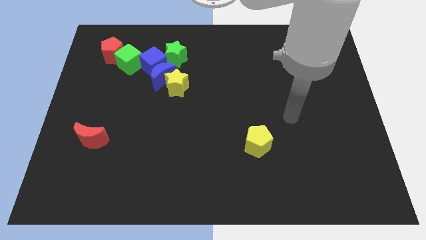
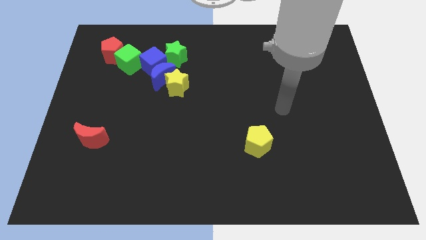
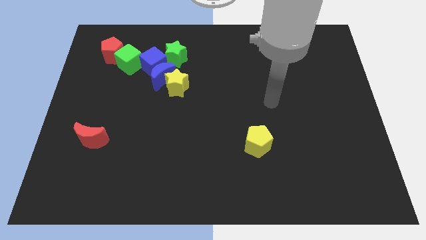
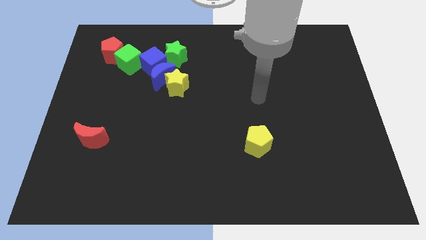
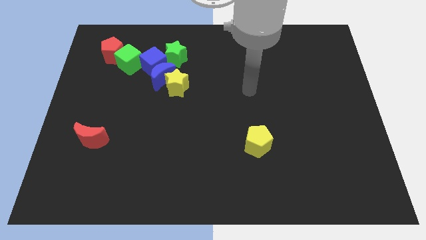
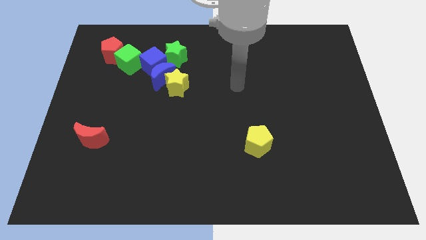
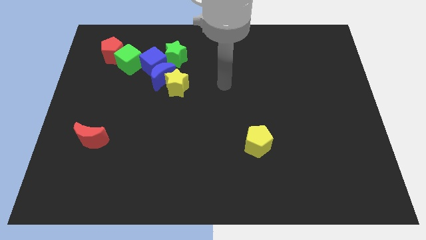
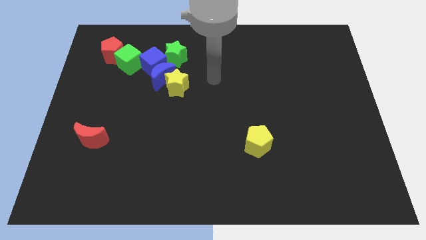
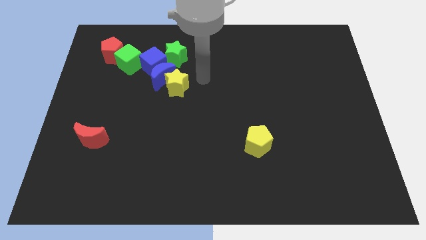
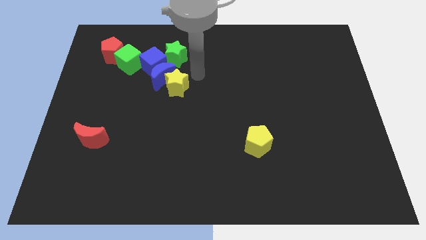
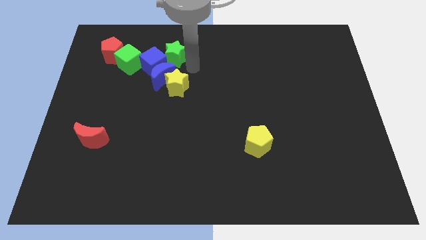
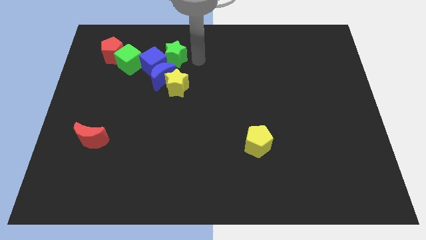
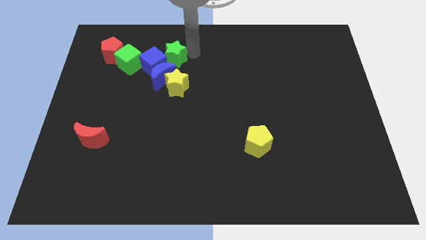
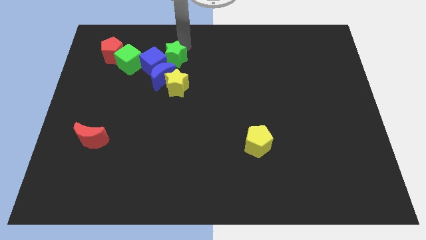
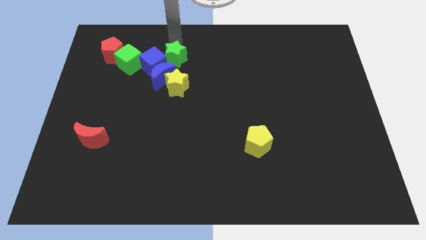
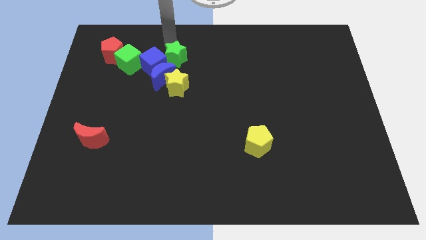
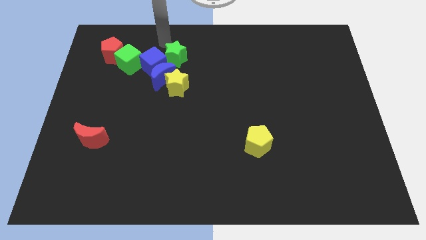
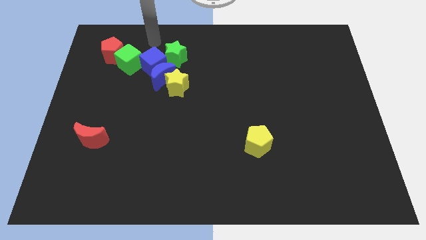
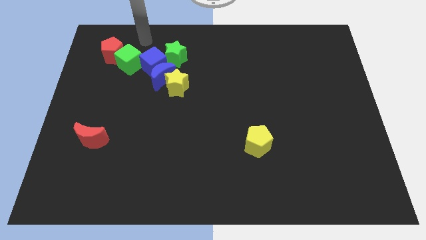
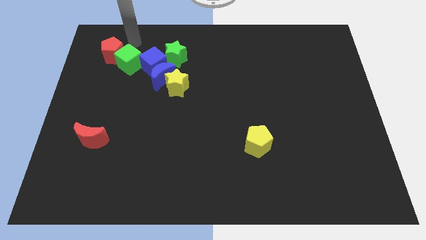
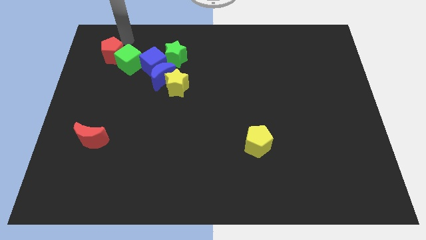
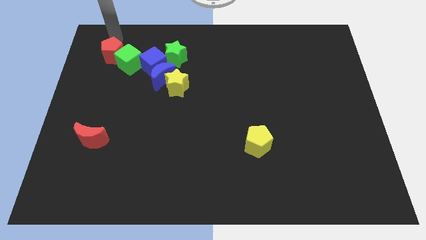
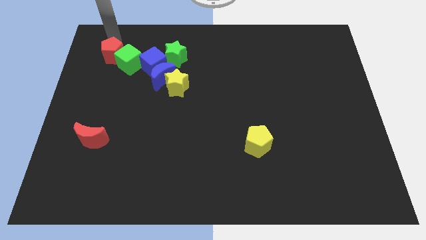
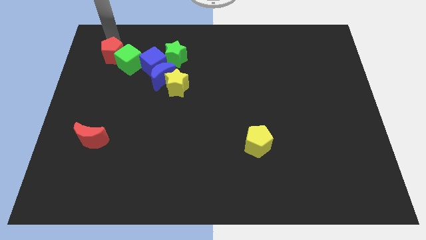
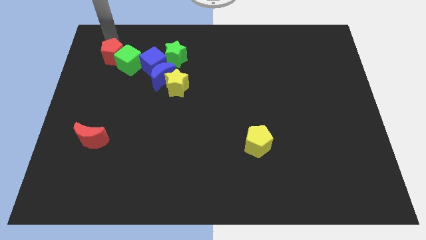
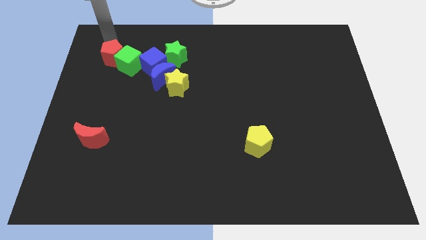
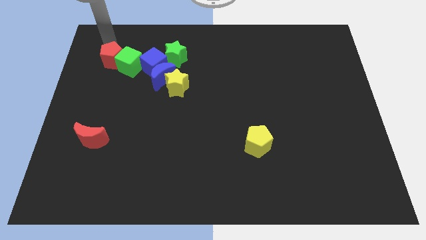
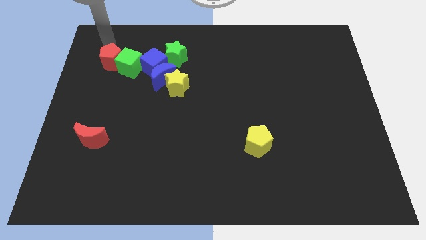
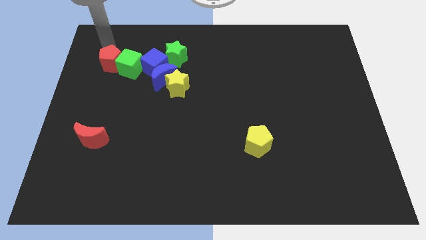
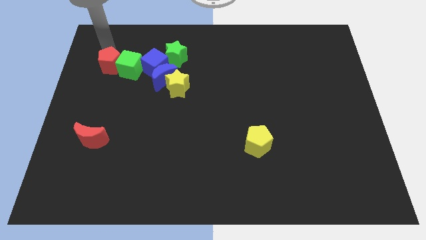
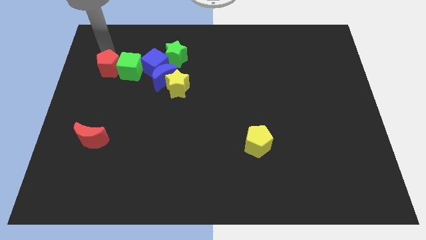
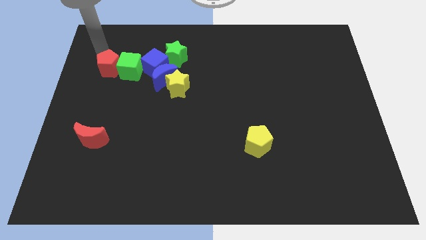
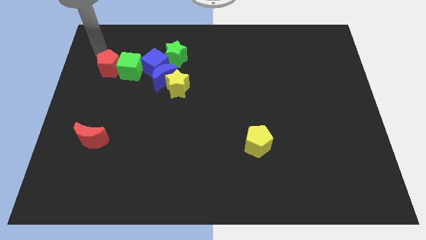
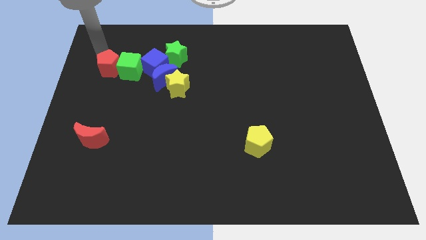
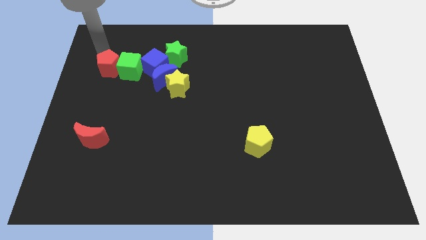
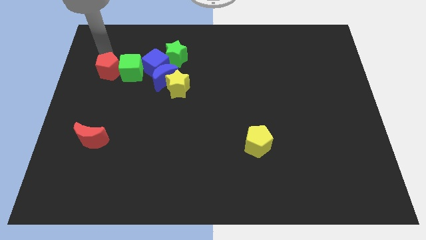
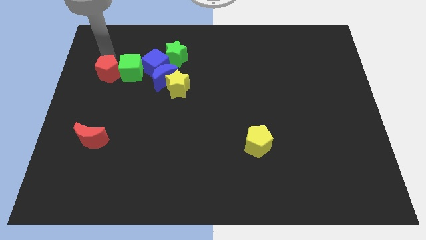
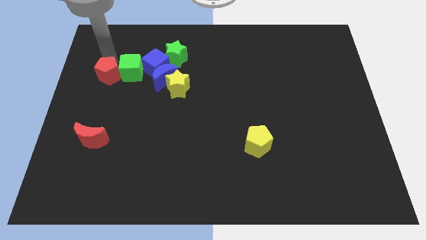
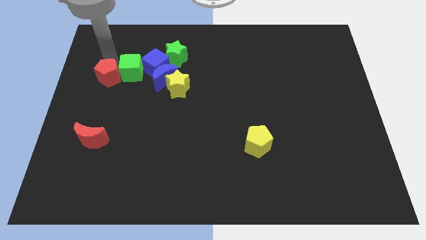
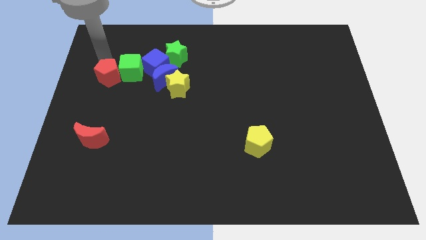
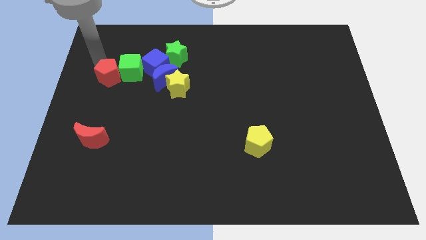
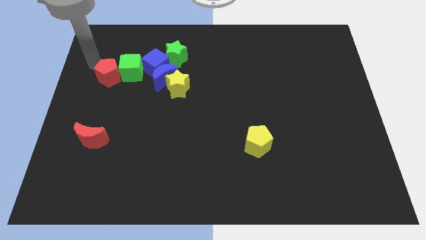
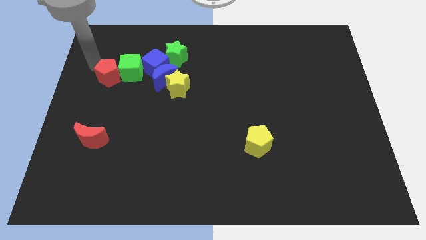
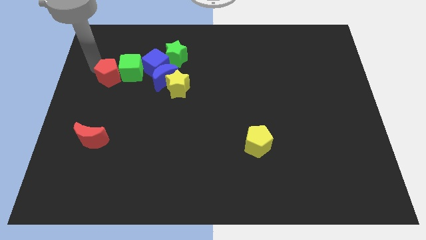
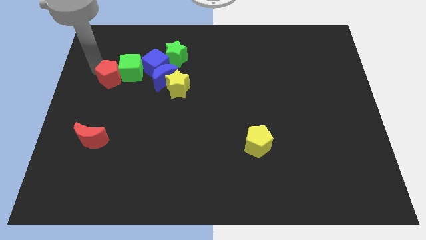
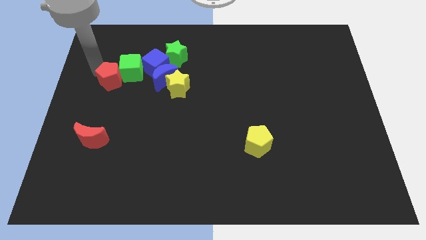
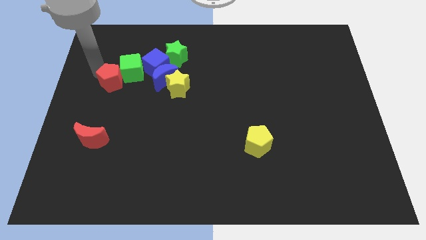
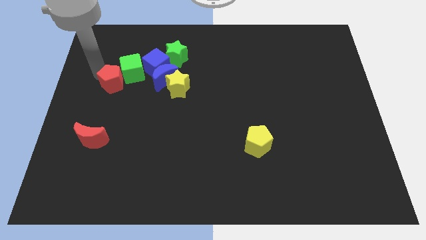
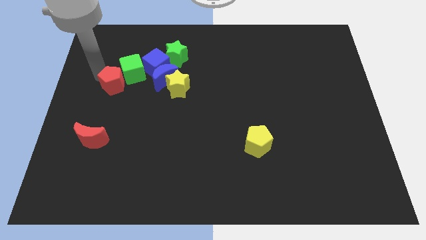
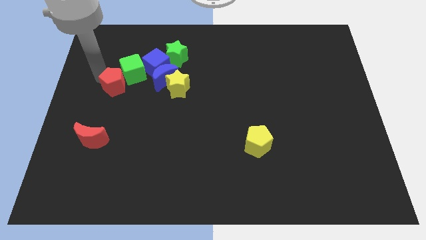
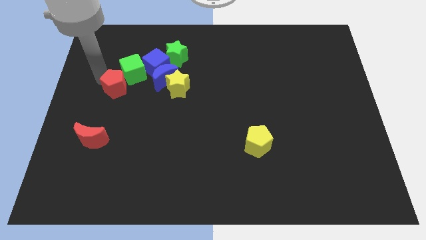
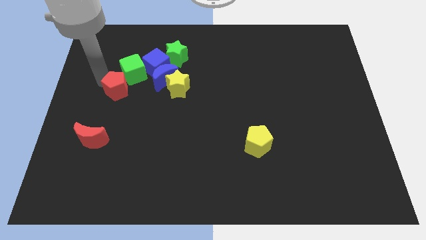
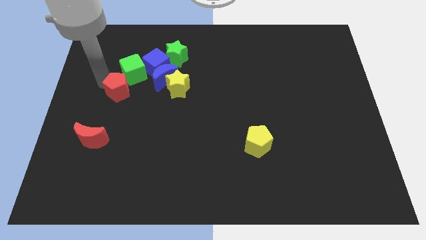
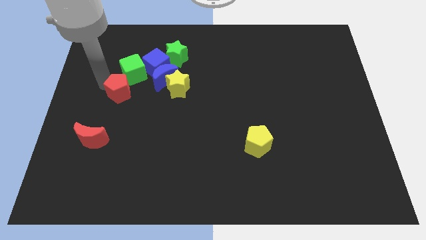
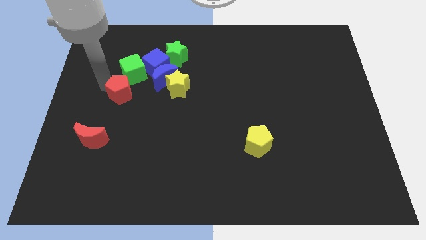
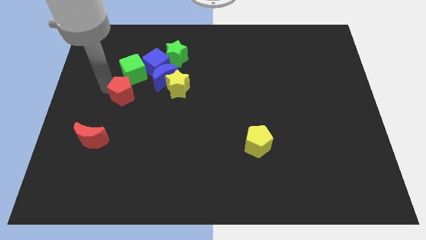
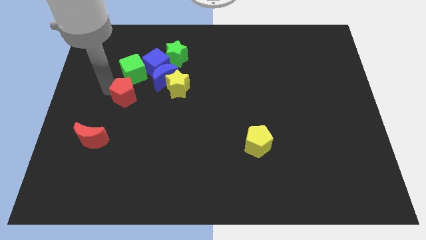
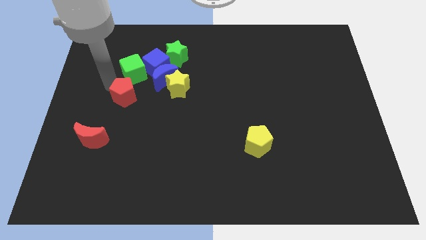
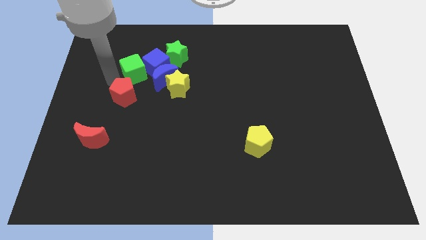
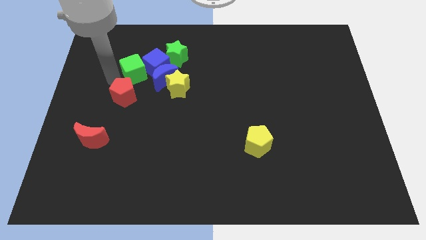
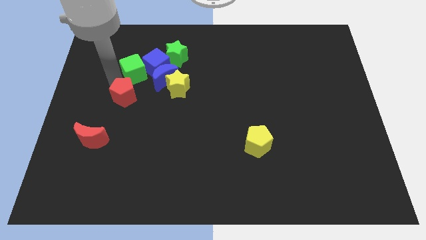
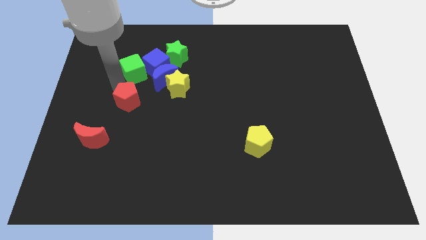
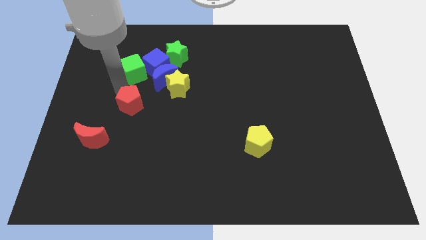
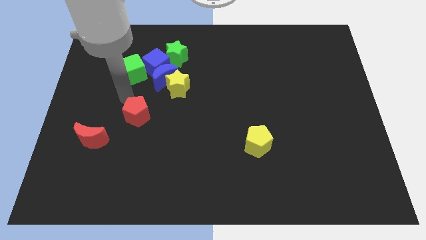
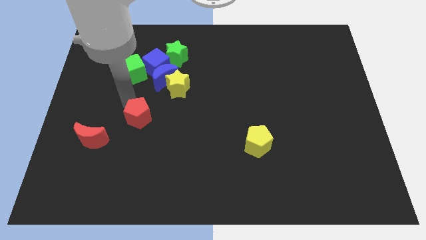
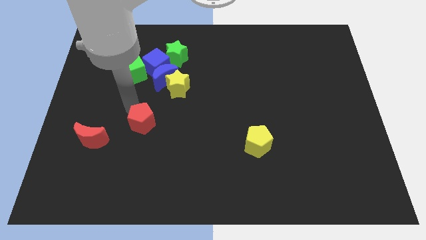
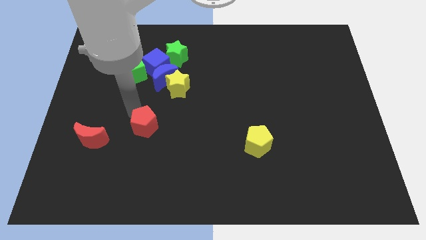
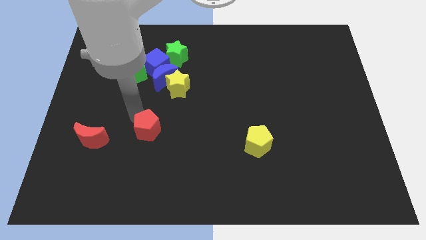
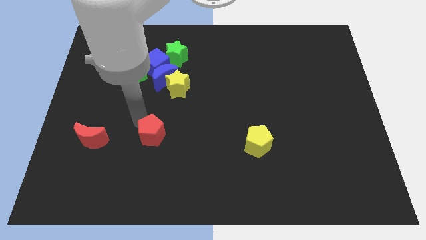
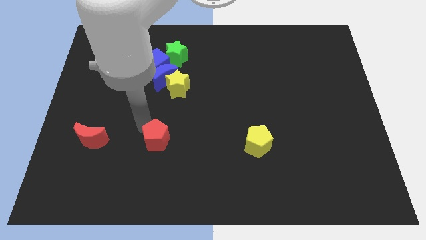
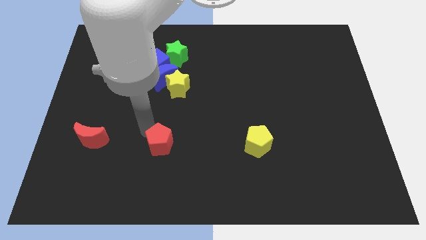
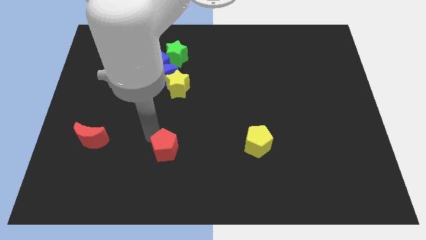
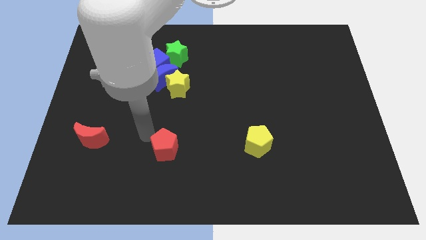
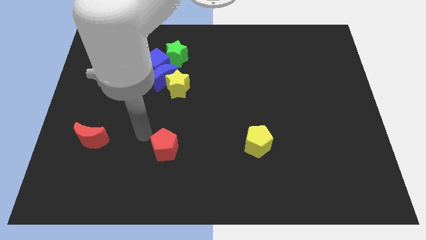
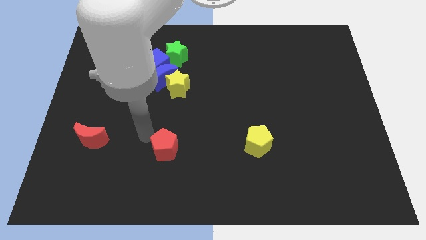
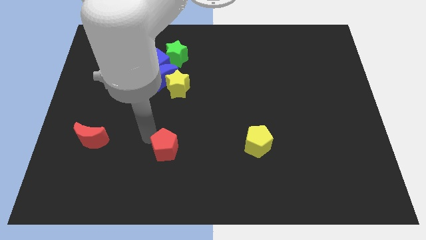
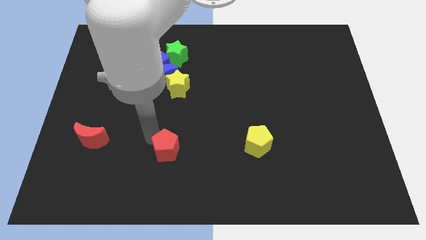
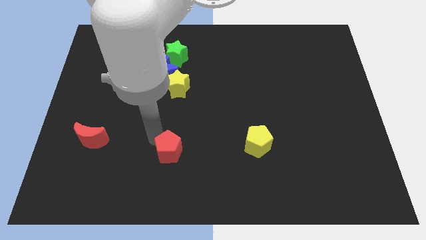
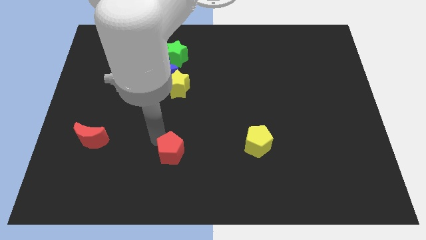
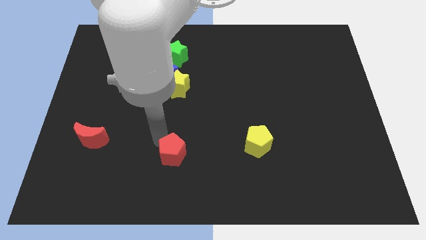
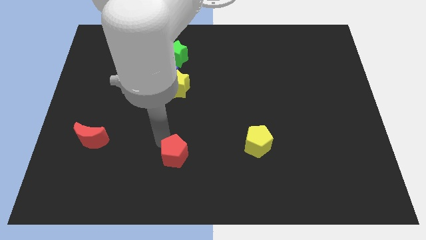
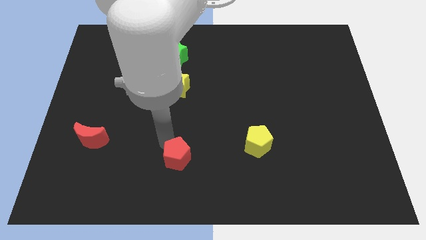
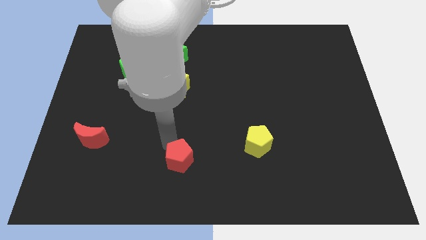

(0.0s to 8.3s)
put the red pentagon to the bottom side
